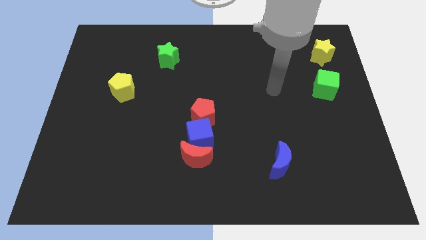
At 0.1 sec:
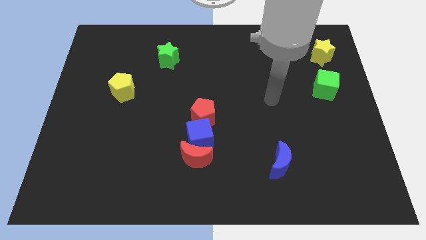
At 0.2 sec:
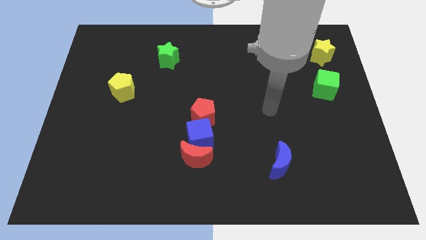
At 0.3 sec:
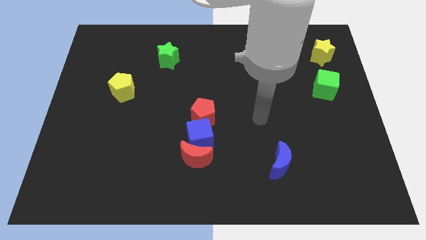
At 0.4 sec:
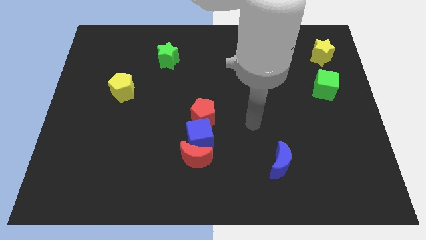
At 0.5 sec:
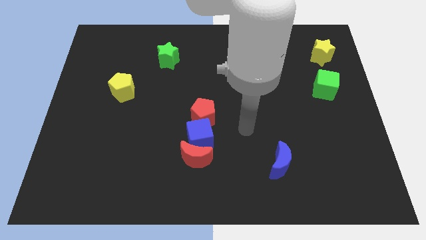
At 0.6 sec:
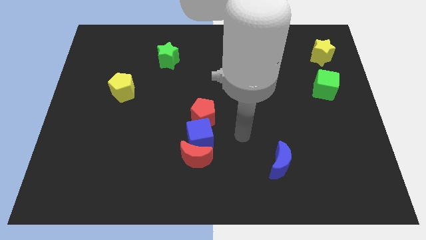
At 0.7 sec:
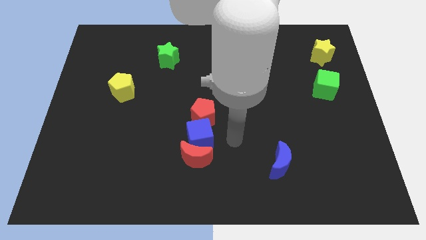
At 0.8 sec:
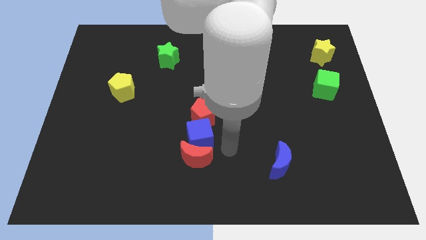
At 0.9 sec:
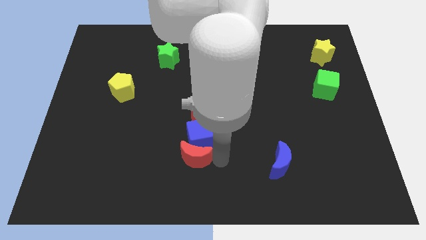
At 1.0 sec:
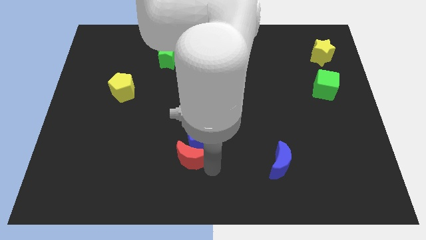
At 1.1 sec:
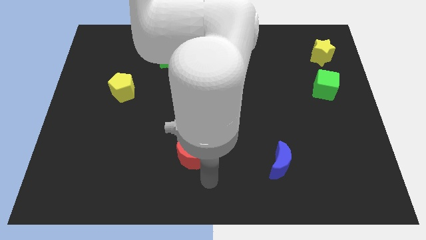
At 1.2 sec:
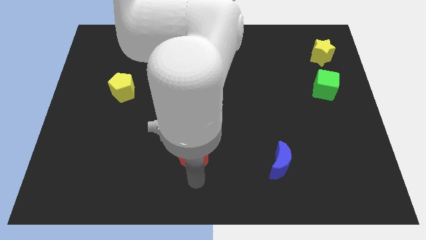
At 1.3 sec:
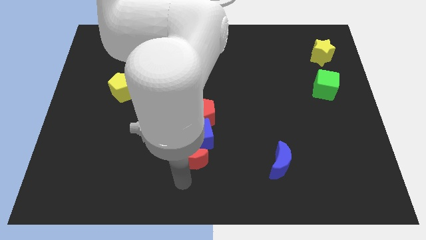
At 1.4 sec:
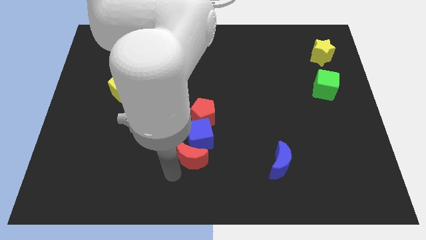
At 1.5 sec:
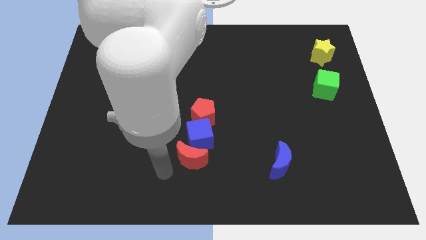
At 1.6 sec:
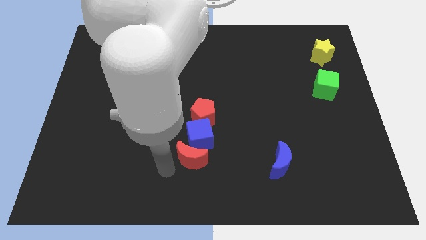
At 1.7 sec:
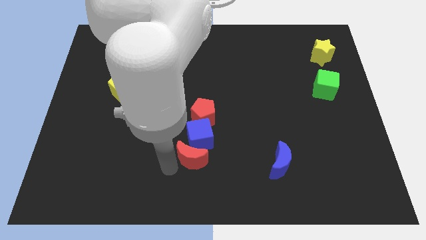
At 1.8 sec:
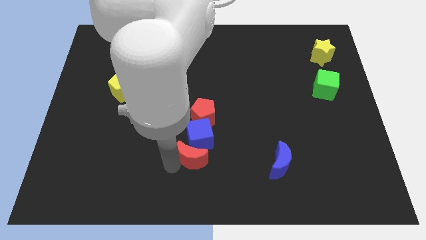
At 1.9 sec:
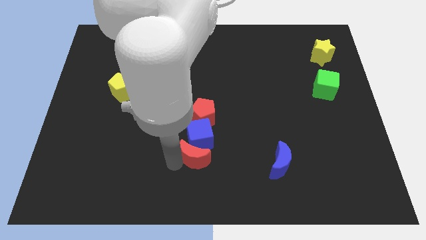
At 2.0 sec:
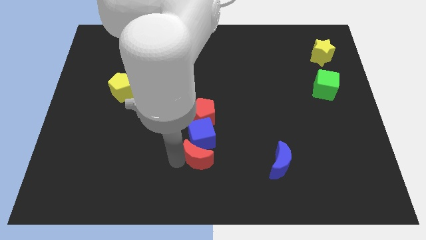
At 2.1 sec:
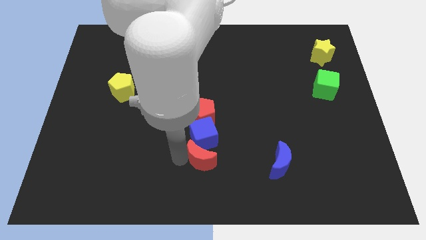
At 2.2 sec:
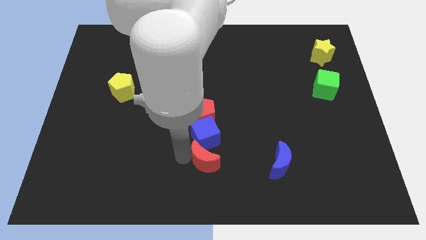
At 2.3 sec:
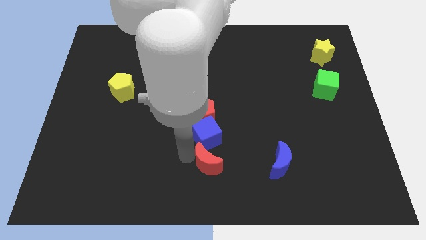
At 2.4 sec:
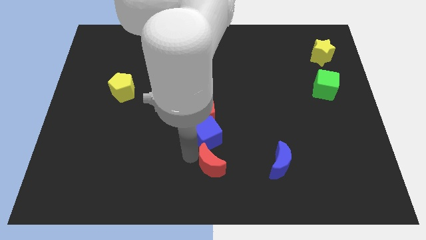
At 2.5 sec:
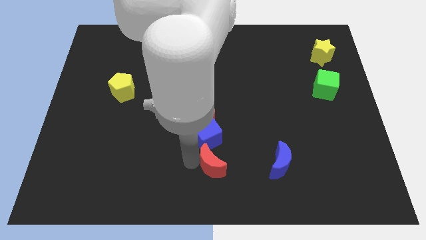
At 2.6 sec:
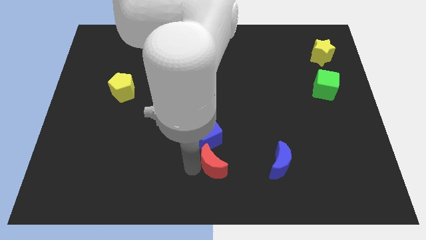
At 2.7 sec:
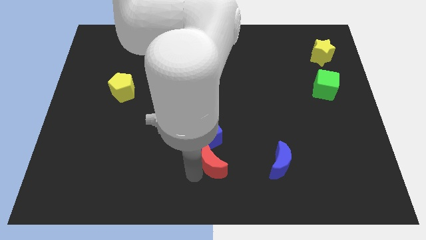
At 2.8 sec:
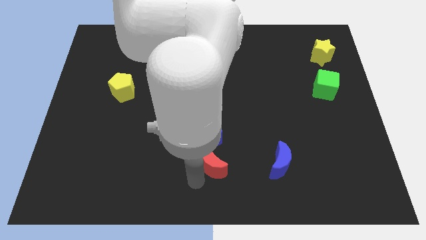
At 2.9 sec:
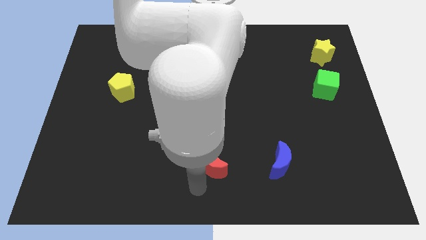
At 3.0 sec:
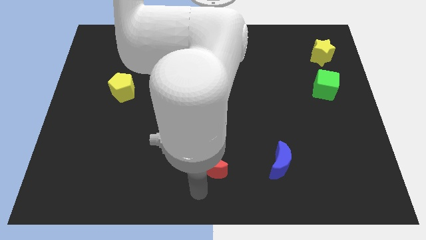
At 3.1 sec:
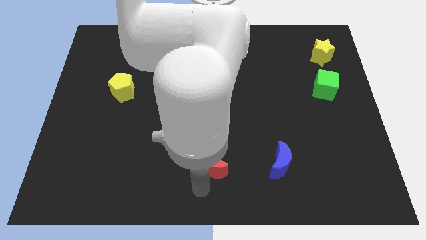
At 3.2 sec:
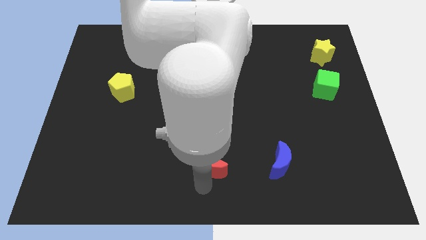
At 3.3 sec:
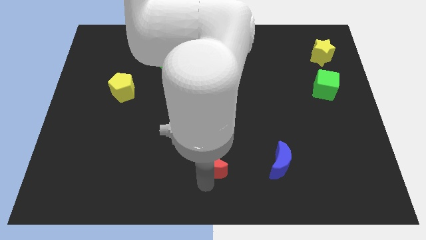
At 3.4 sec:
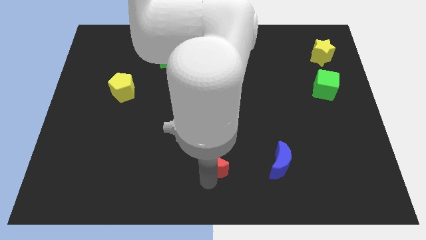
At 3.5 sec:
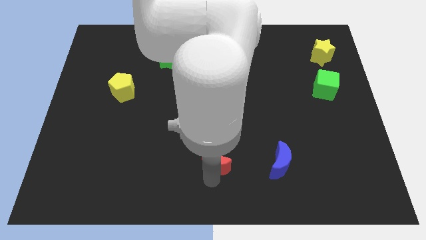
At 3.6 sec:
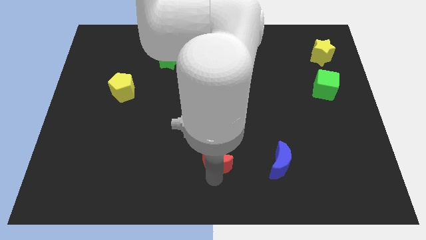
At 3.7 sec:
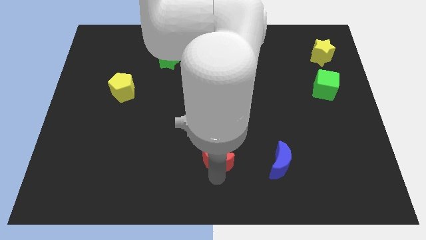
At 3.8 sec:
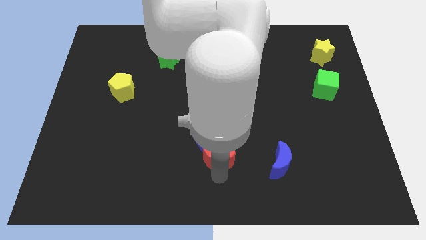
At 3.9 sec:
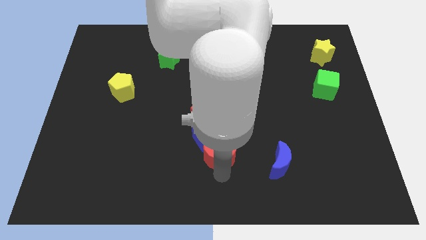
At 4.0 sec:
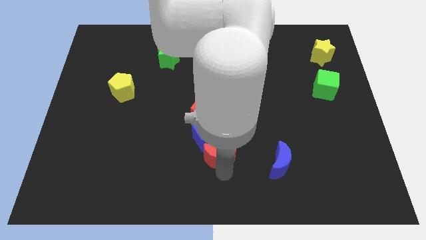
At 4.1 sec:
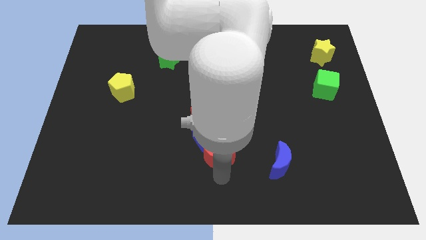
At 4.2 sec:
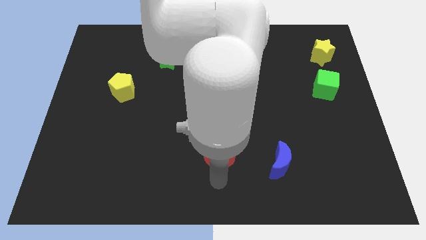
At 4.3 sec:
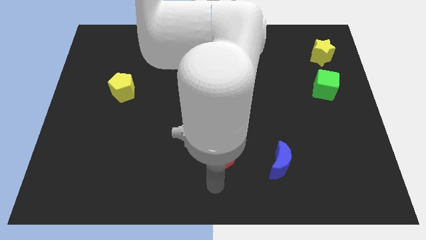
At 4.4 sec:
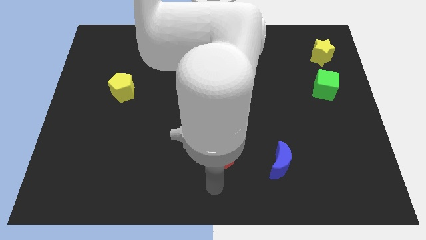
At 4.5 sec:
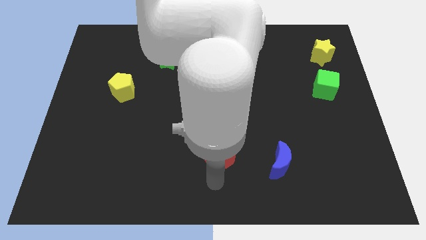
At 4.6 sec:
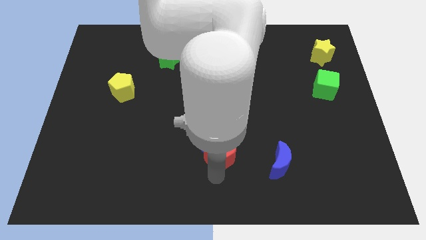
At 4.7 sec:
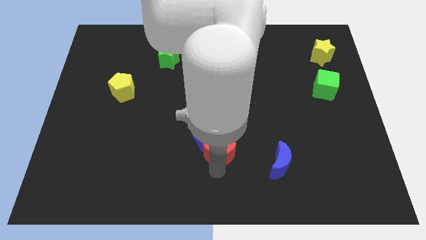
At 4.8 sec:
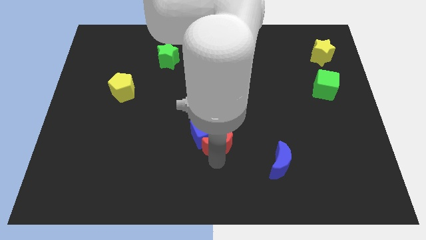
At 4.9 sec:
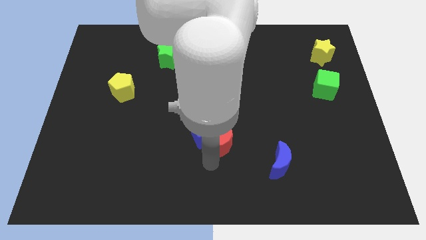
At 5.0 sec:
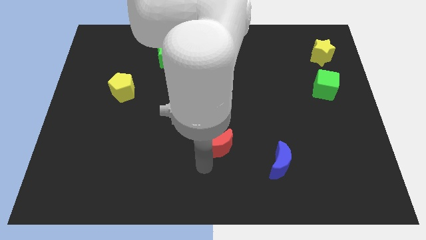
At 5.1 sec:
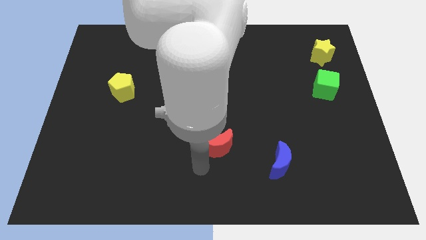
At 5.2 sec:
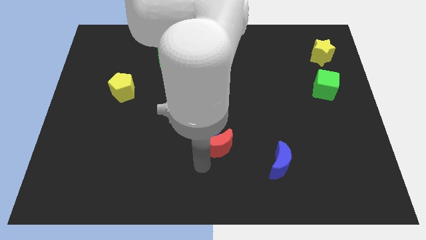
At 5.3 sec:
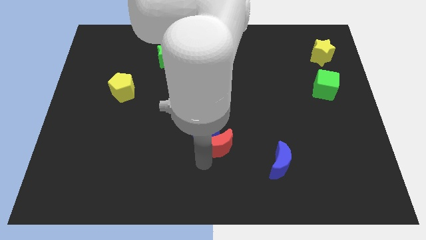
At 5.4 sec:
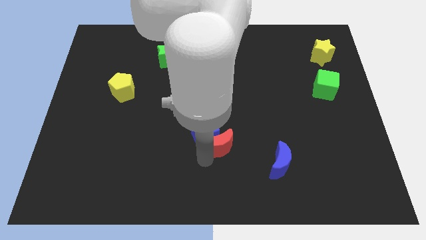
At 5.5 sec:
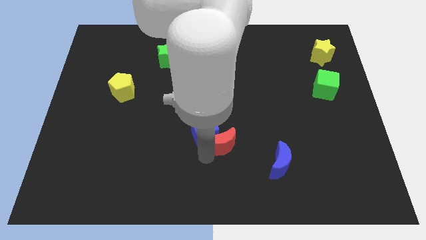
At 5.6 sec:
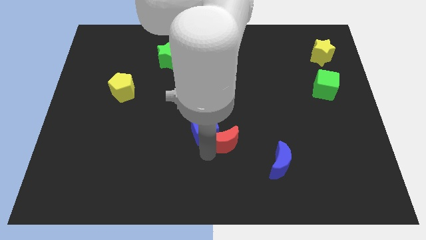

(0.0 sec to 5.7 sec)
slightly slide the red moon up and right diagonally

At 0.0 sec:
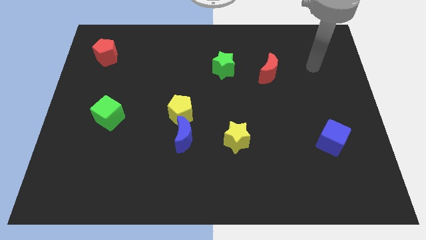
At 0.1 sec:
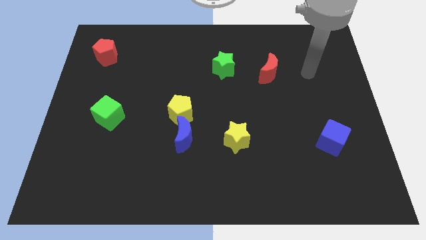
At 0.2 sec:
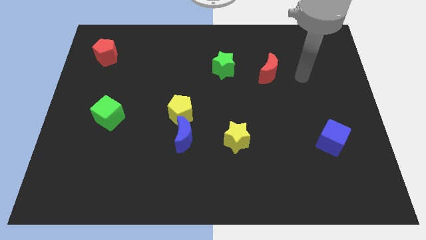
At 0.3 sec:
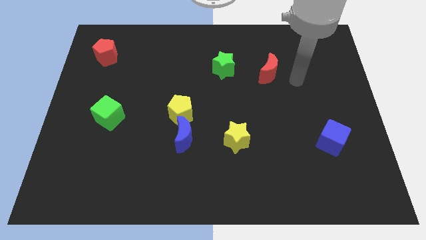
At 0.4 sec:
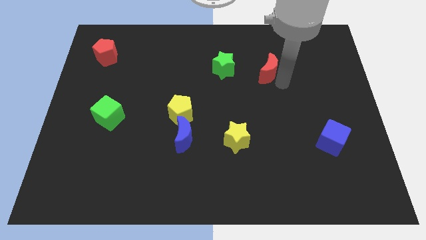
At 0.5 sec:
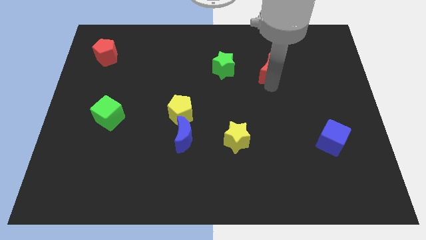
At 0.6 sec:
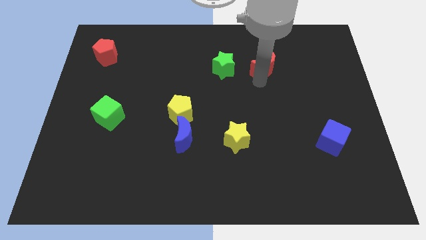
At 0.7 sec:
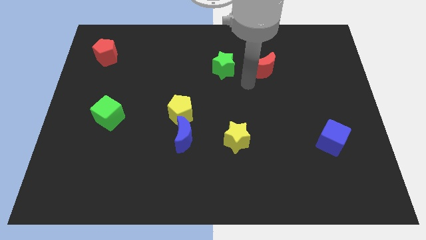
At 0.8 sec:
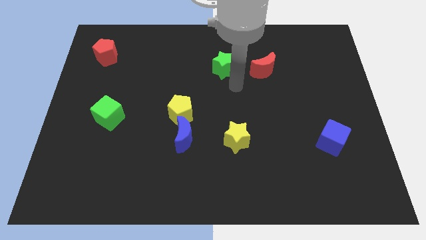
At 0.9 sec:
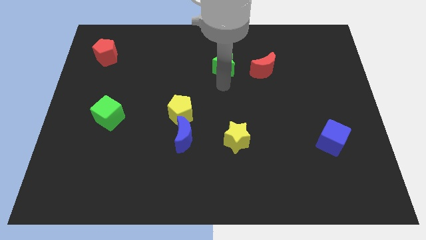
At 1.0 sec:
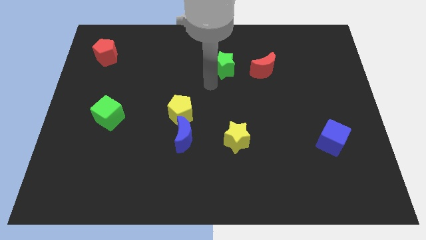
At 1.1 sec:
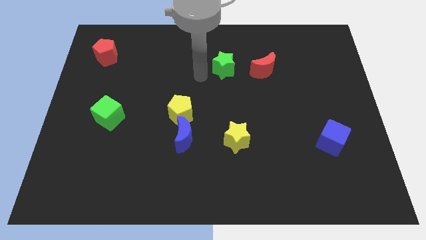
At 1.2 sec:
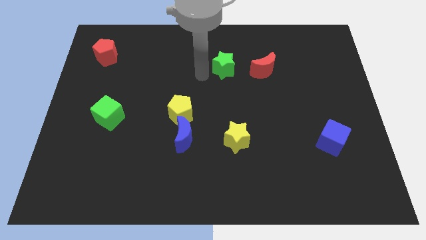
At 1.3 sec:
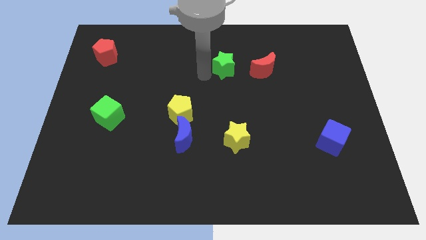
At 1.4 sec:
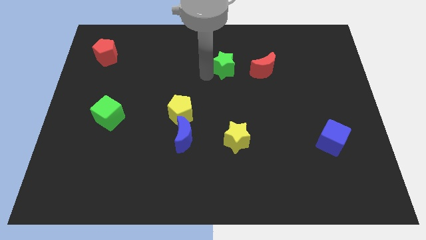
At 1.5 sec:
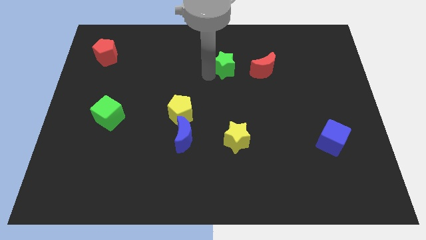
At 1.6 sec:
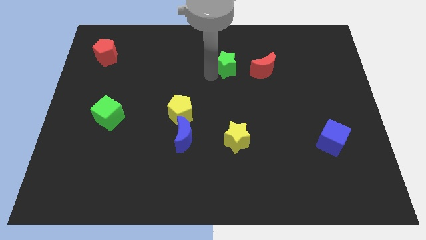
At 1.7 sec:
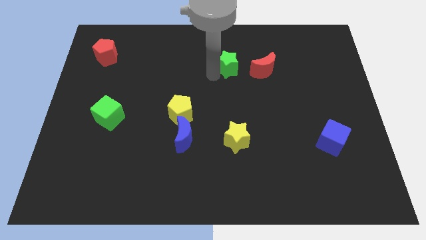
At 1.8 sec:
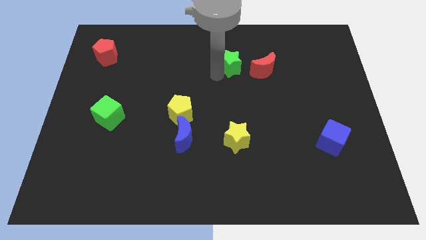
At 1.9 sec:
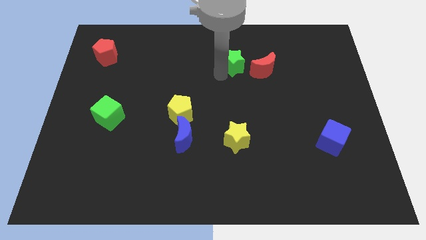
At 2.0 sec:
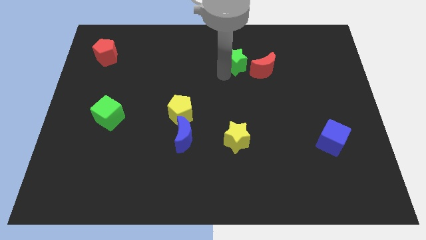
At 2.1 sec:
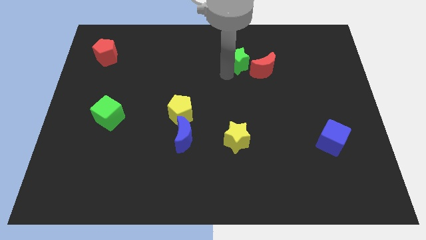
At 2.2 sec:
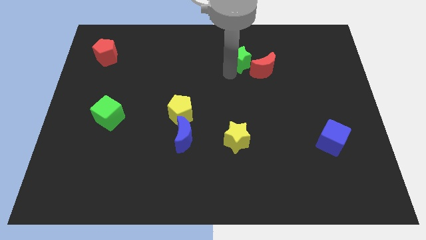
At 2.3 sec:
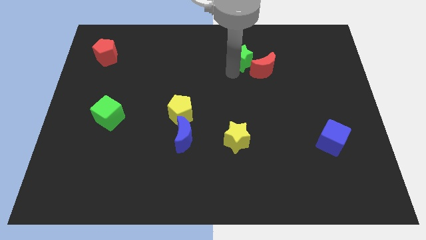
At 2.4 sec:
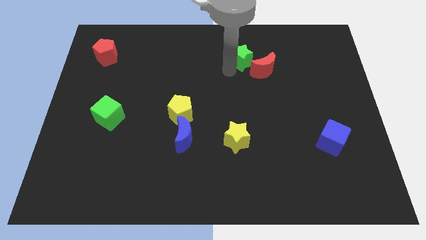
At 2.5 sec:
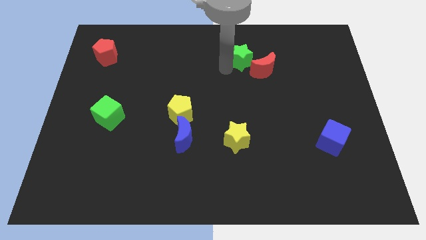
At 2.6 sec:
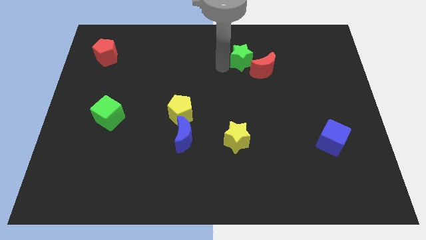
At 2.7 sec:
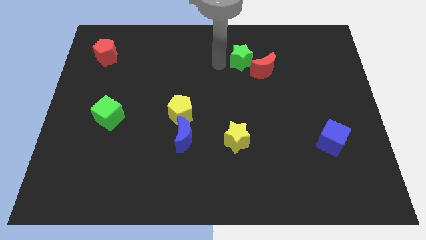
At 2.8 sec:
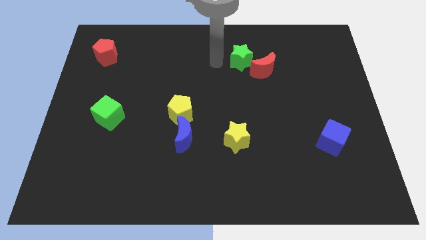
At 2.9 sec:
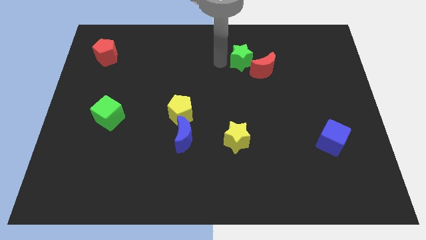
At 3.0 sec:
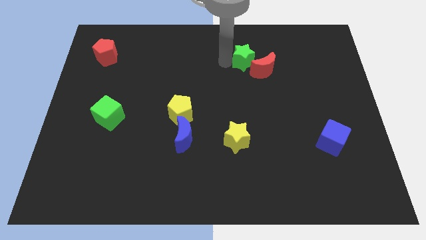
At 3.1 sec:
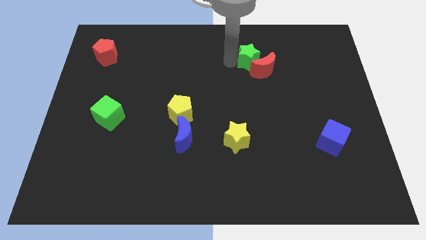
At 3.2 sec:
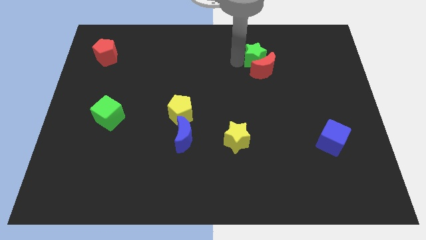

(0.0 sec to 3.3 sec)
slide the green star slightly to the right
